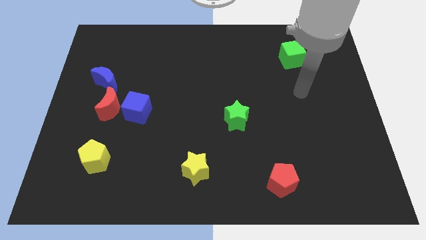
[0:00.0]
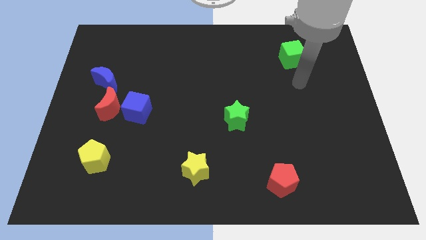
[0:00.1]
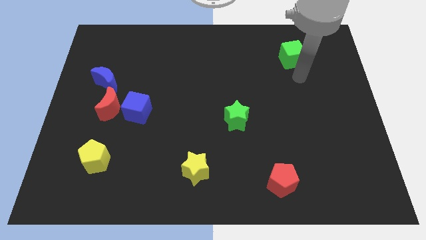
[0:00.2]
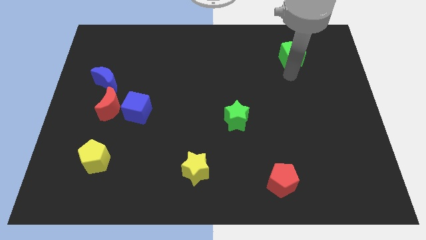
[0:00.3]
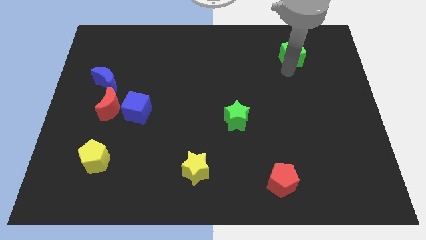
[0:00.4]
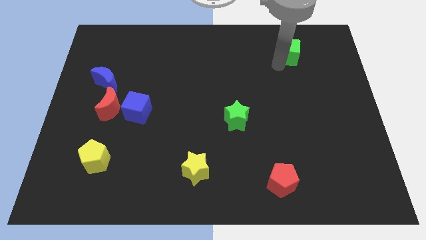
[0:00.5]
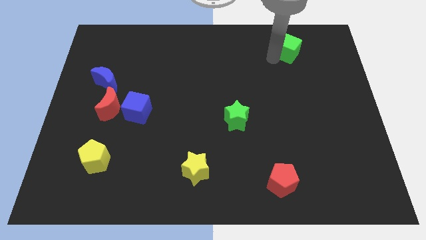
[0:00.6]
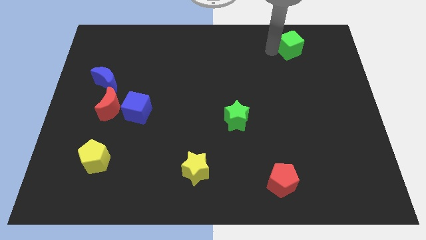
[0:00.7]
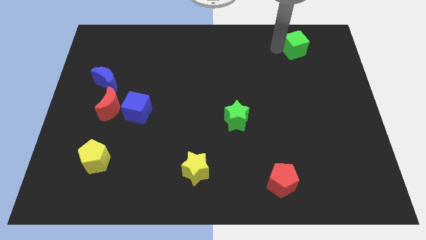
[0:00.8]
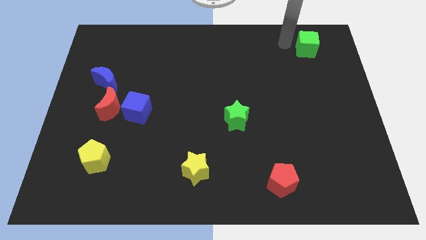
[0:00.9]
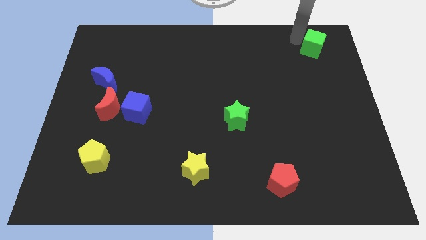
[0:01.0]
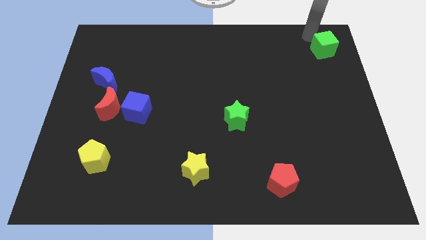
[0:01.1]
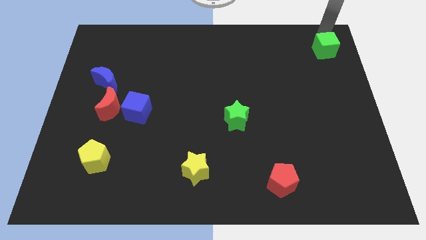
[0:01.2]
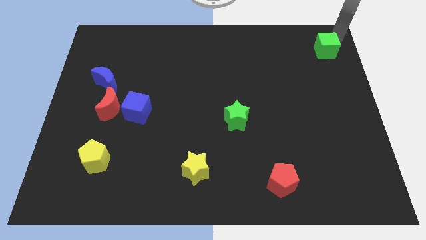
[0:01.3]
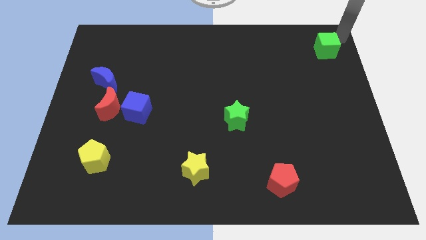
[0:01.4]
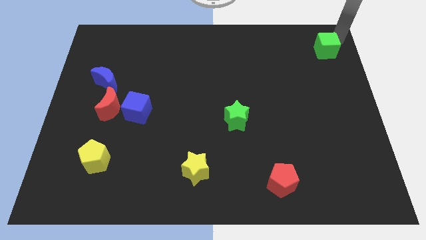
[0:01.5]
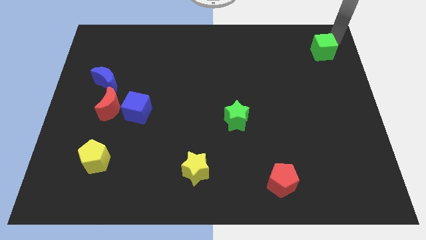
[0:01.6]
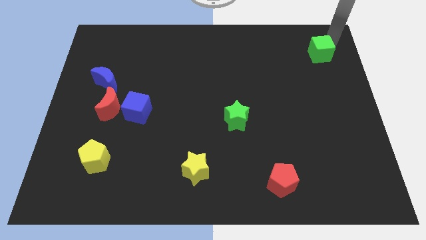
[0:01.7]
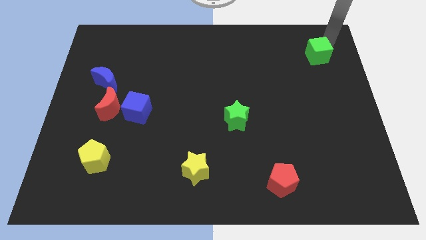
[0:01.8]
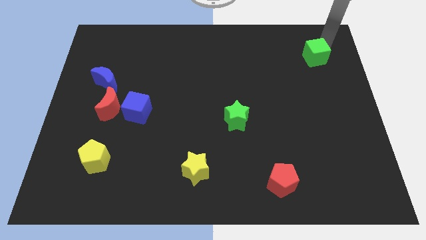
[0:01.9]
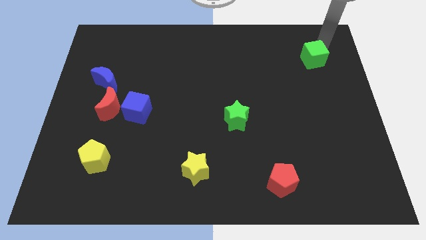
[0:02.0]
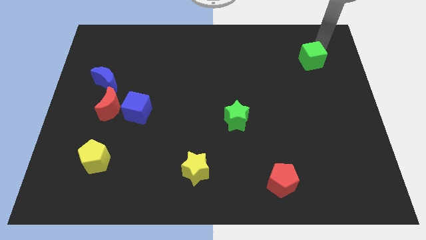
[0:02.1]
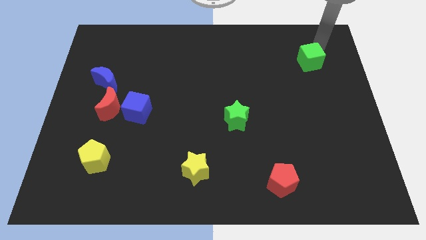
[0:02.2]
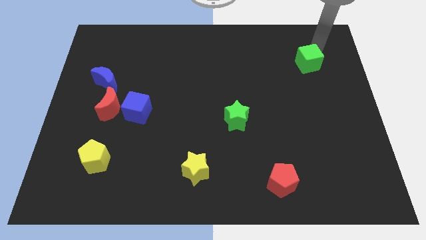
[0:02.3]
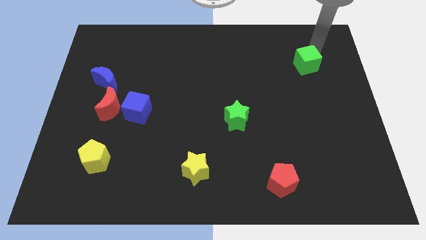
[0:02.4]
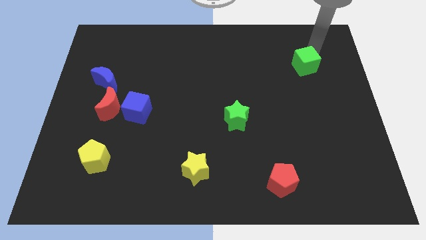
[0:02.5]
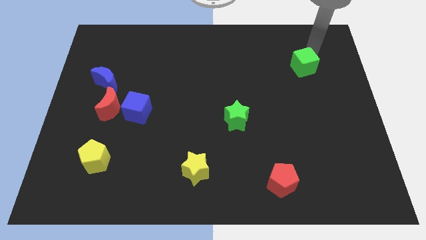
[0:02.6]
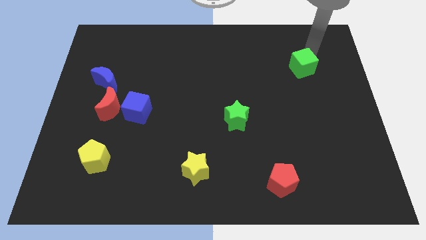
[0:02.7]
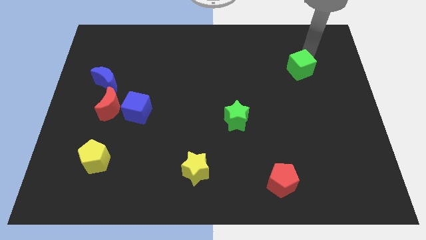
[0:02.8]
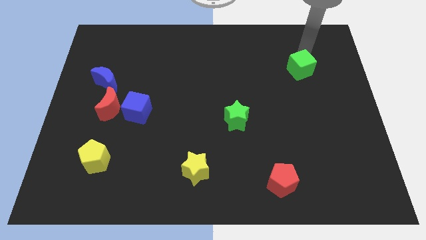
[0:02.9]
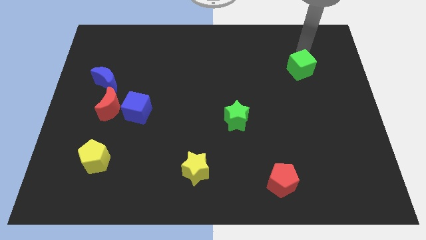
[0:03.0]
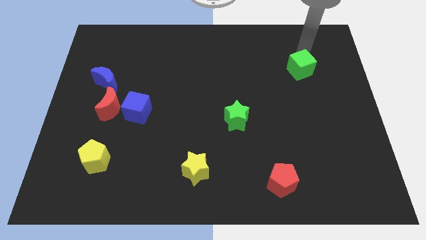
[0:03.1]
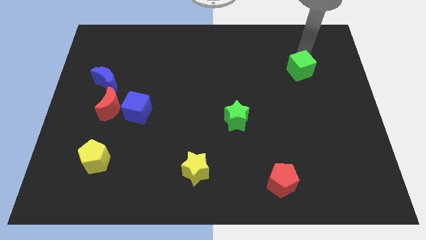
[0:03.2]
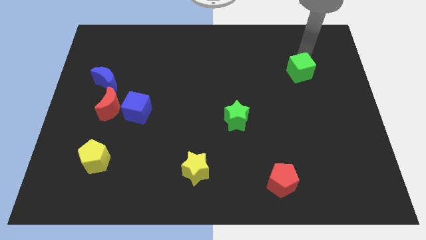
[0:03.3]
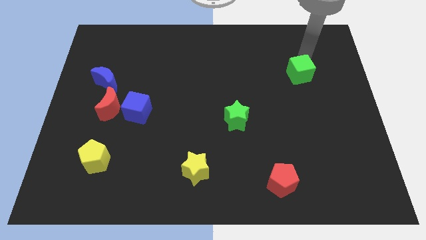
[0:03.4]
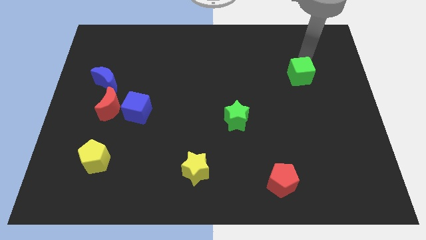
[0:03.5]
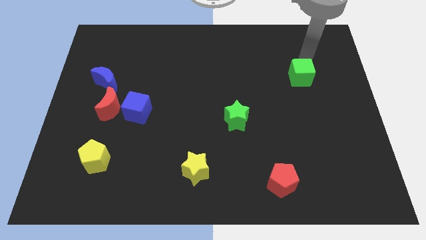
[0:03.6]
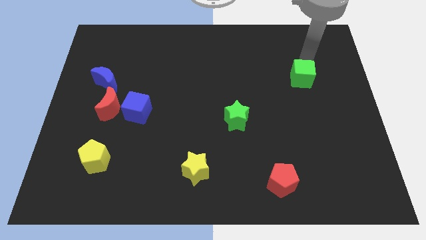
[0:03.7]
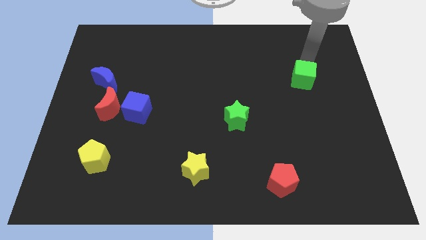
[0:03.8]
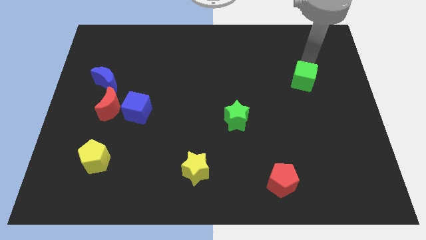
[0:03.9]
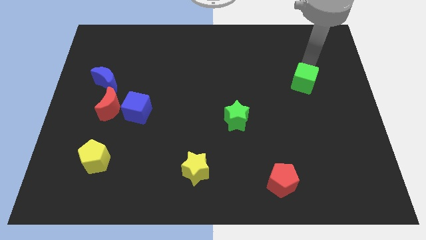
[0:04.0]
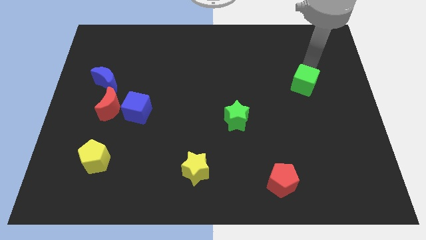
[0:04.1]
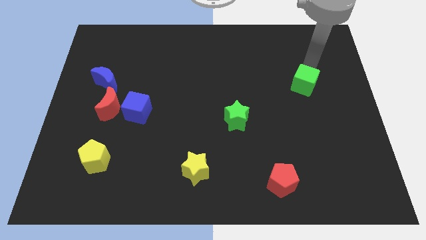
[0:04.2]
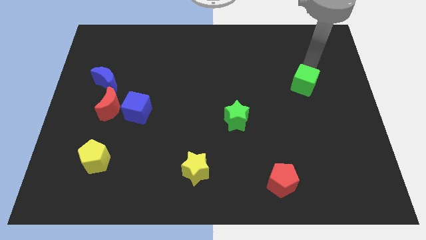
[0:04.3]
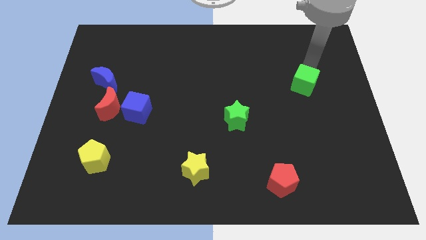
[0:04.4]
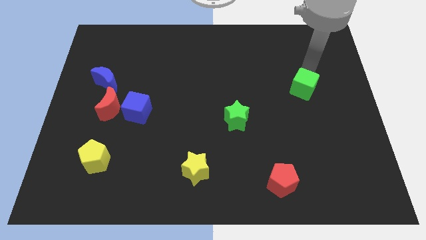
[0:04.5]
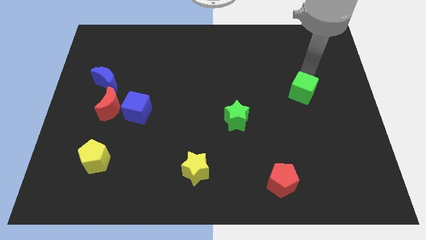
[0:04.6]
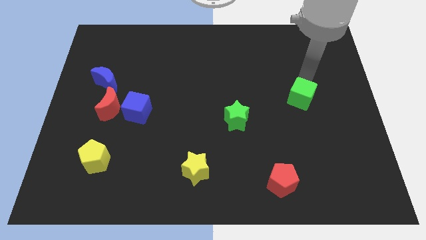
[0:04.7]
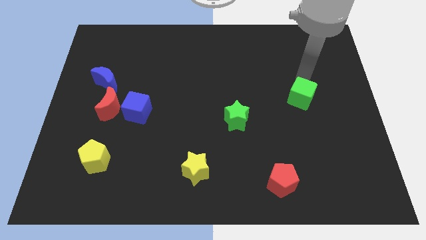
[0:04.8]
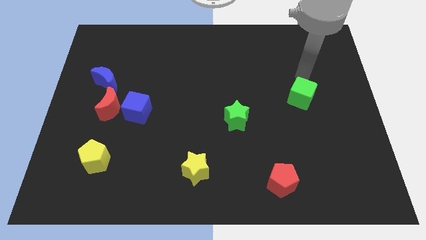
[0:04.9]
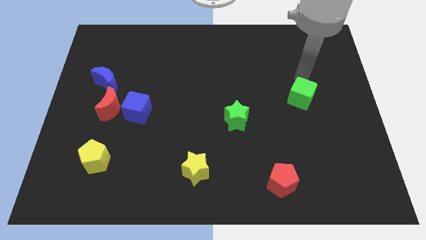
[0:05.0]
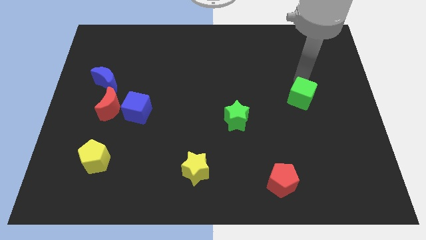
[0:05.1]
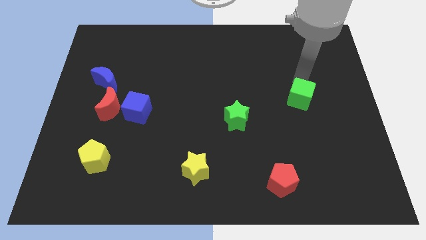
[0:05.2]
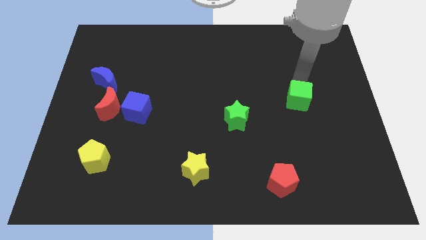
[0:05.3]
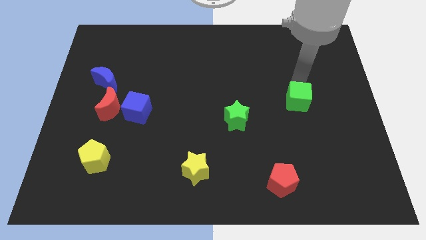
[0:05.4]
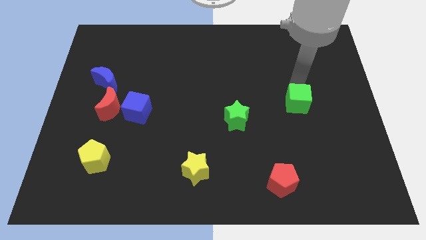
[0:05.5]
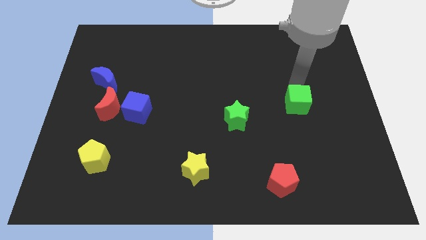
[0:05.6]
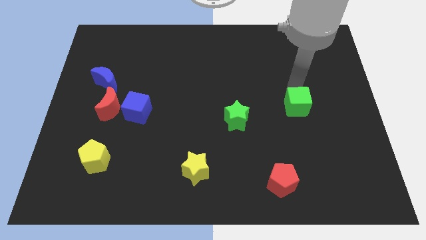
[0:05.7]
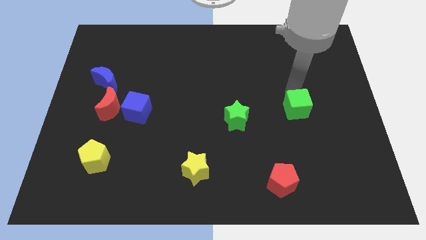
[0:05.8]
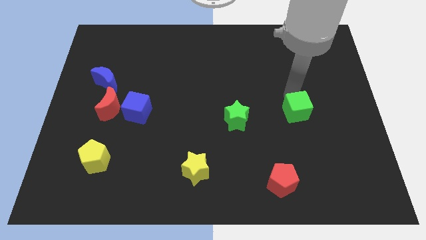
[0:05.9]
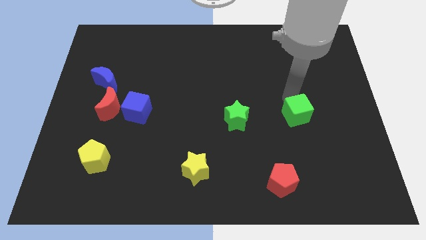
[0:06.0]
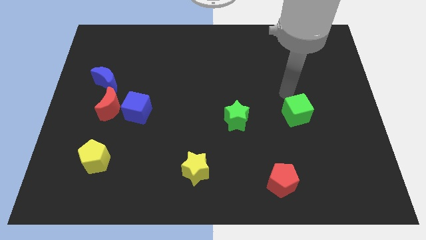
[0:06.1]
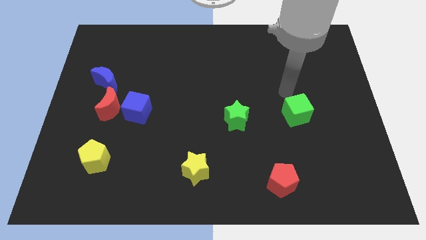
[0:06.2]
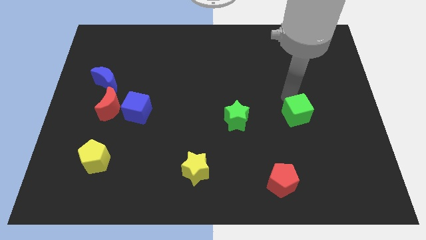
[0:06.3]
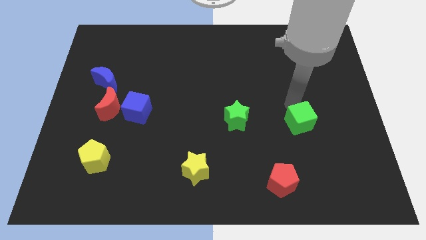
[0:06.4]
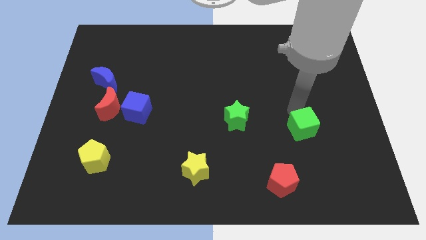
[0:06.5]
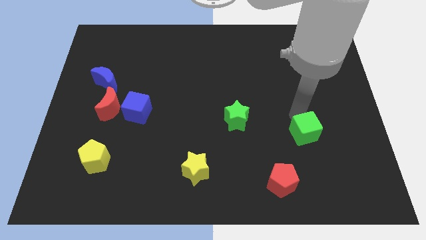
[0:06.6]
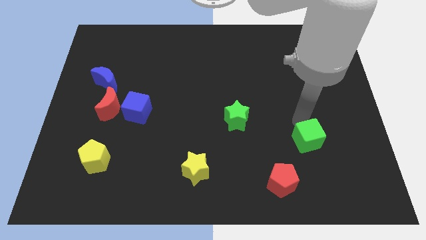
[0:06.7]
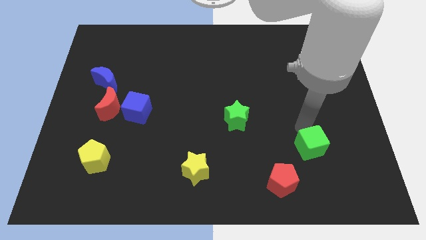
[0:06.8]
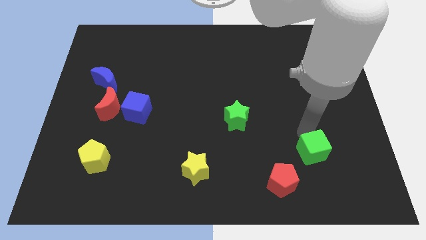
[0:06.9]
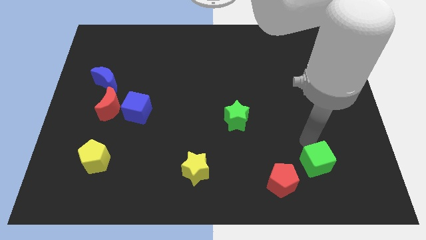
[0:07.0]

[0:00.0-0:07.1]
slide the green cube right of the red pentagon
